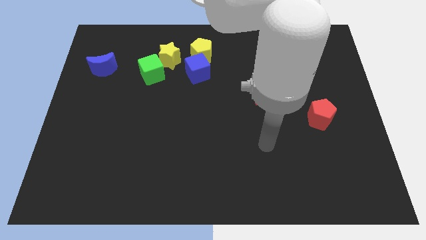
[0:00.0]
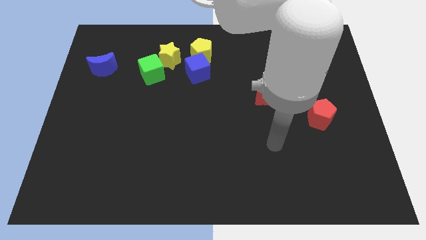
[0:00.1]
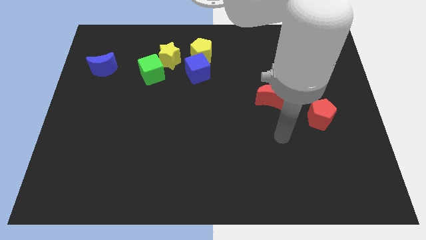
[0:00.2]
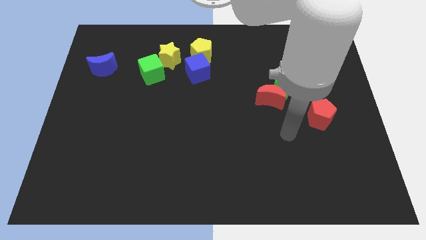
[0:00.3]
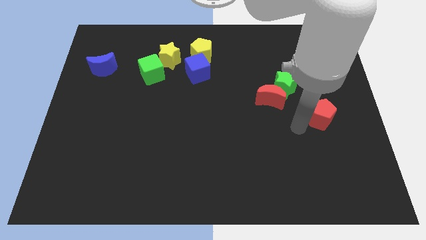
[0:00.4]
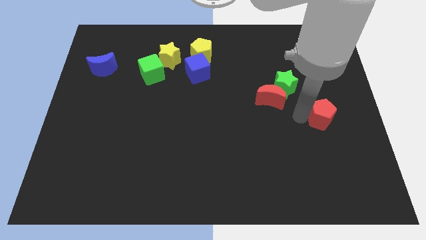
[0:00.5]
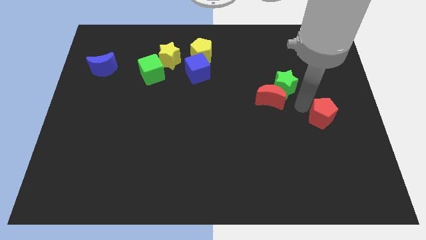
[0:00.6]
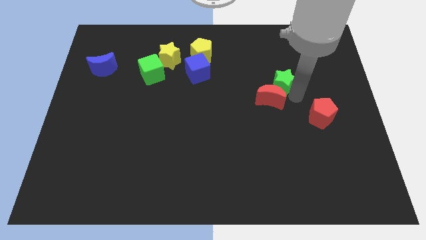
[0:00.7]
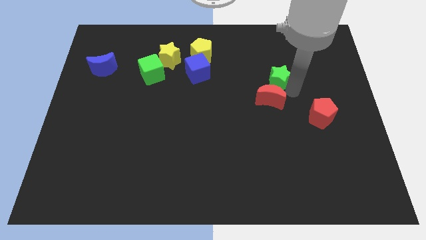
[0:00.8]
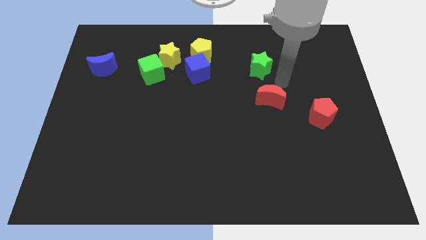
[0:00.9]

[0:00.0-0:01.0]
pull the red moon apart from the green star

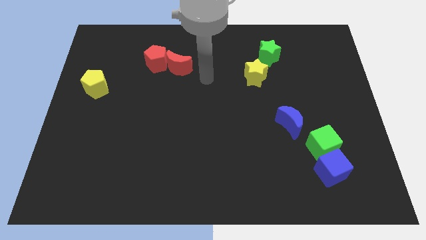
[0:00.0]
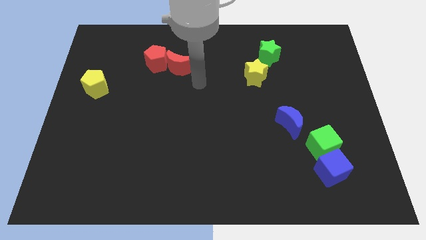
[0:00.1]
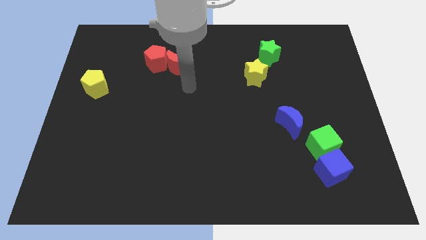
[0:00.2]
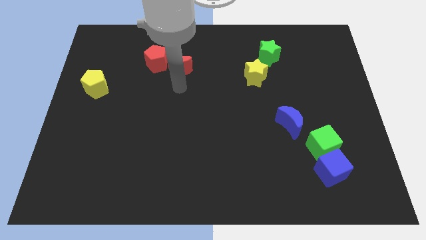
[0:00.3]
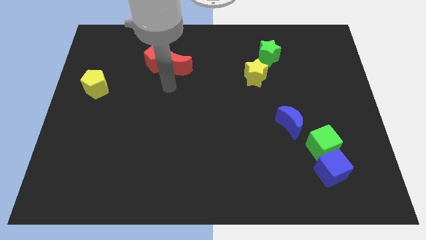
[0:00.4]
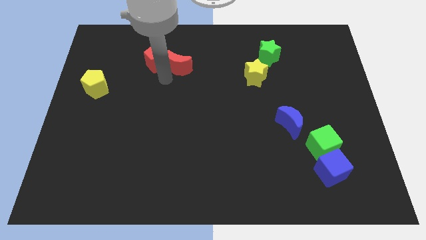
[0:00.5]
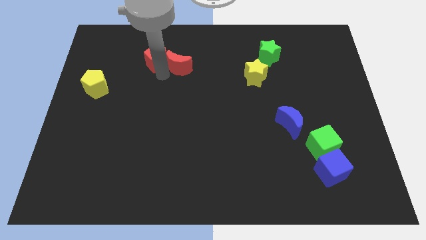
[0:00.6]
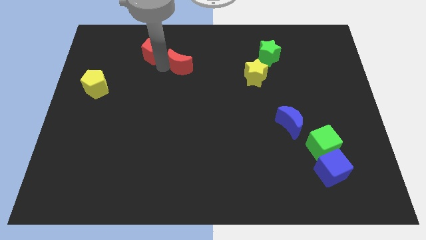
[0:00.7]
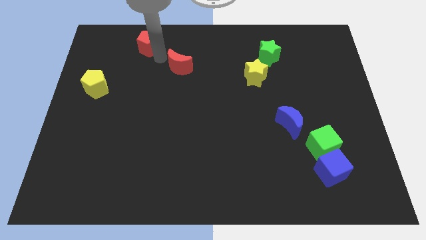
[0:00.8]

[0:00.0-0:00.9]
pull the red moon apart from the red pentagon

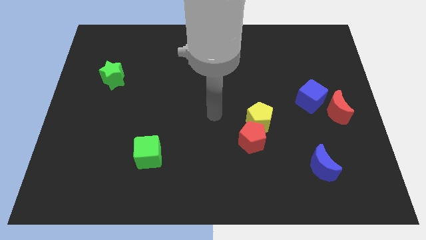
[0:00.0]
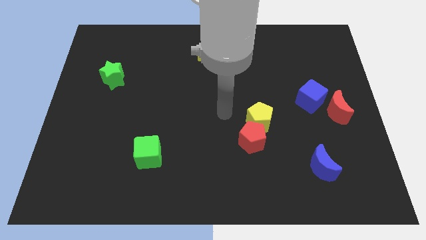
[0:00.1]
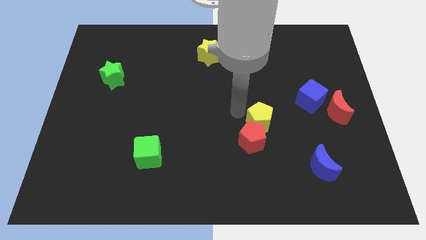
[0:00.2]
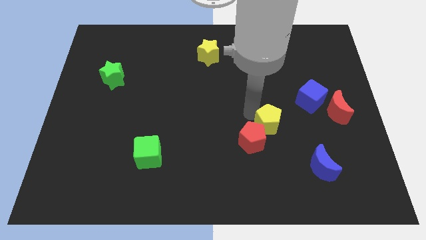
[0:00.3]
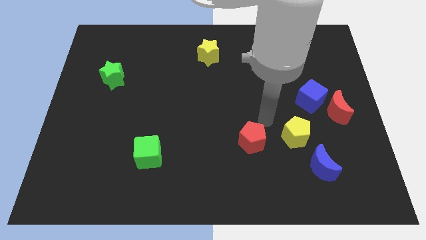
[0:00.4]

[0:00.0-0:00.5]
move the red pentagon away from the yellow pentagon

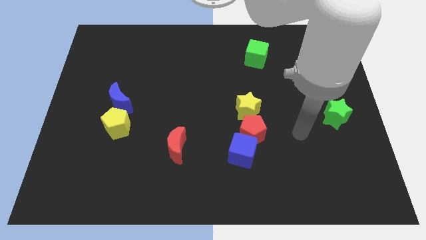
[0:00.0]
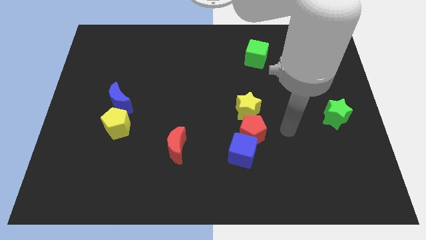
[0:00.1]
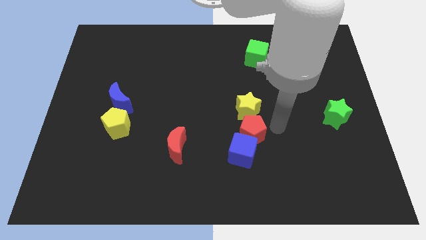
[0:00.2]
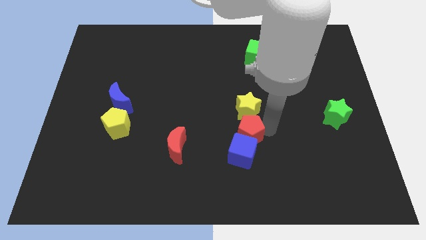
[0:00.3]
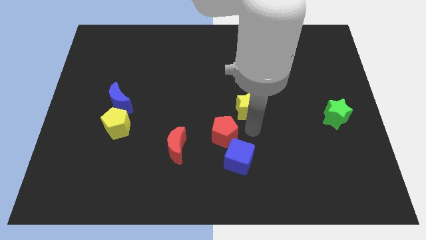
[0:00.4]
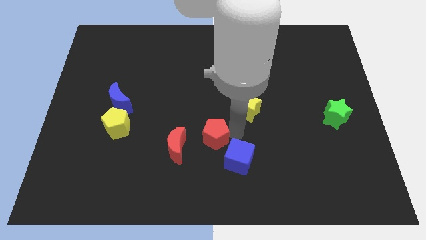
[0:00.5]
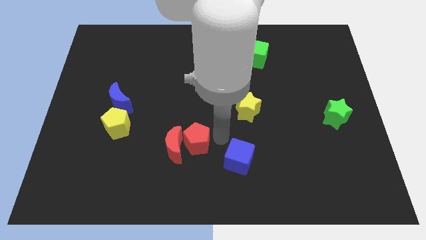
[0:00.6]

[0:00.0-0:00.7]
separate the blue cube from the red pentagon

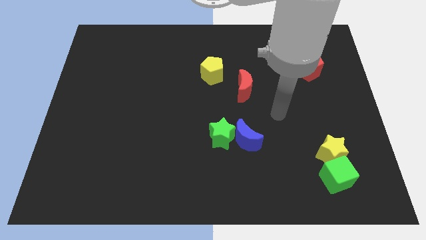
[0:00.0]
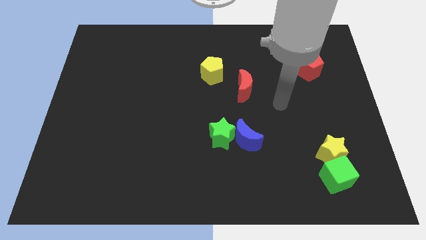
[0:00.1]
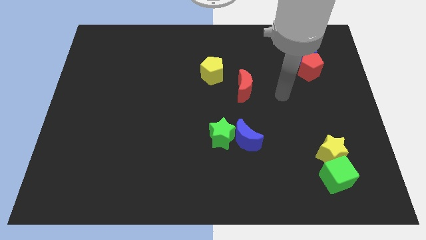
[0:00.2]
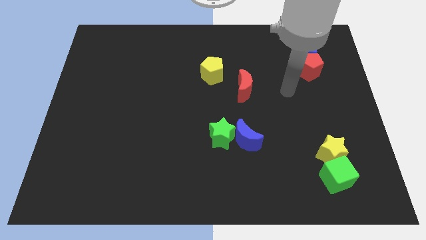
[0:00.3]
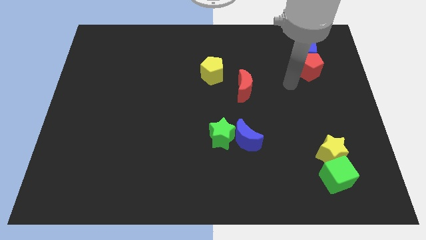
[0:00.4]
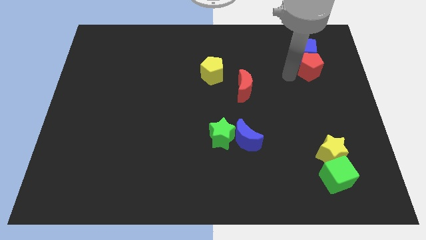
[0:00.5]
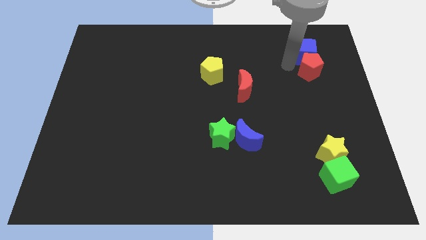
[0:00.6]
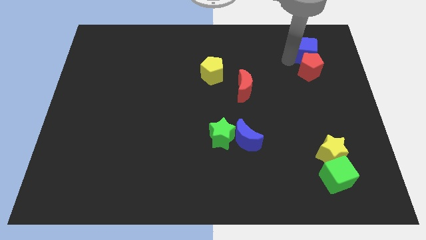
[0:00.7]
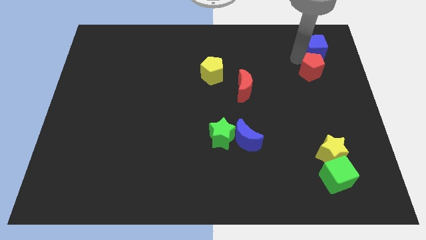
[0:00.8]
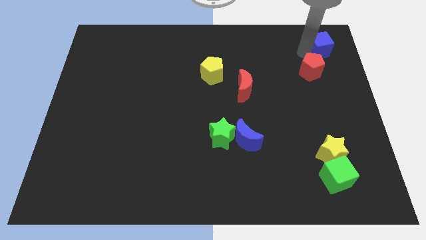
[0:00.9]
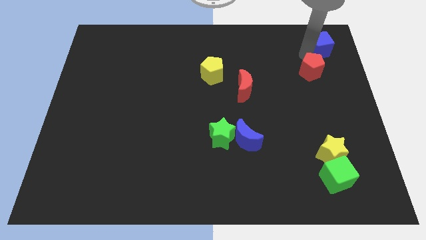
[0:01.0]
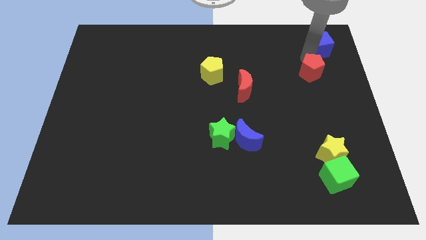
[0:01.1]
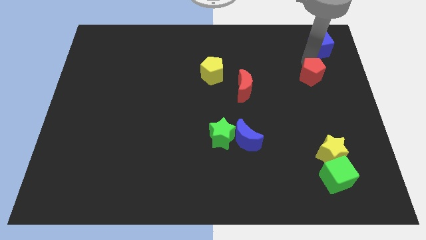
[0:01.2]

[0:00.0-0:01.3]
separate the red pentagon from the blue cube

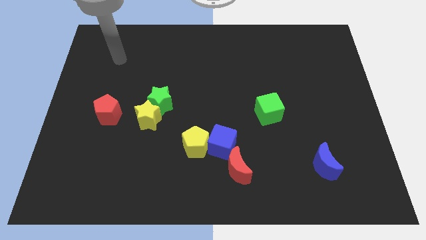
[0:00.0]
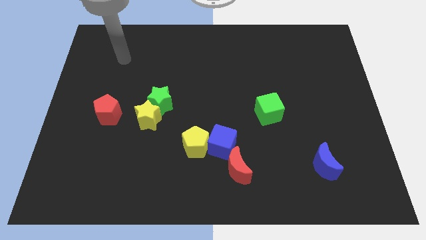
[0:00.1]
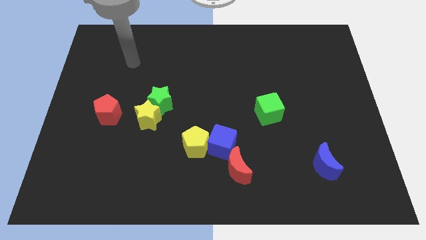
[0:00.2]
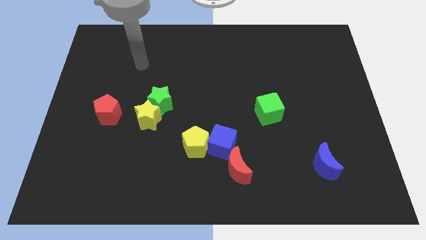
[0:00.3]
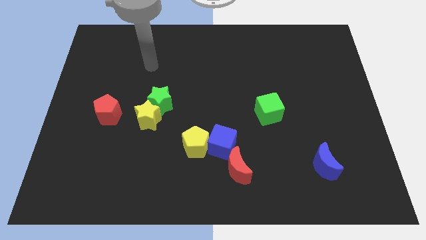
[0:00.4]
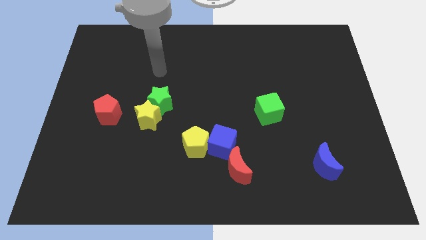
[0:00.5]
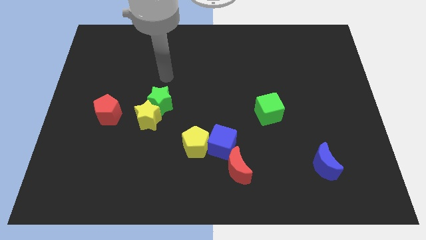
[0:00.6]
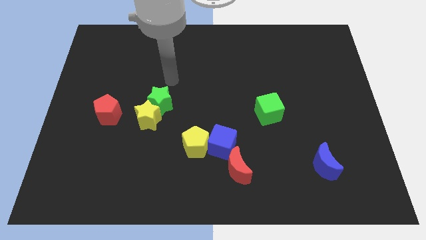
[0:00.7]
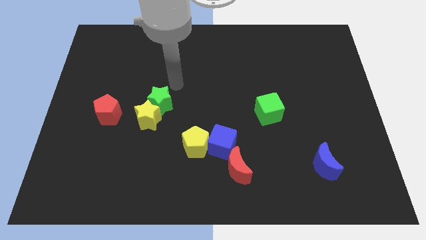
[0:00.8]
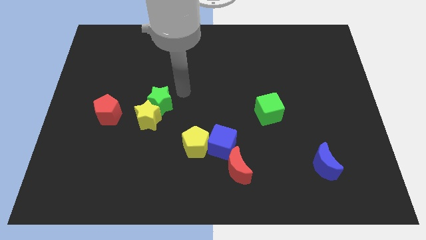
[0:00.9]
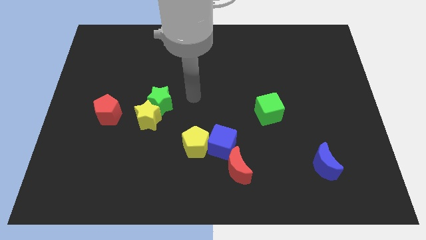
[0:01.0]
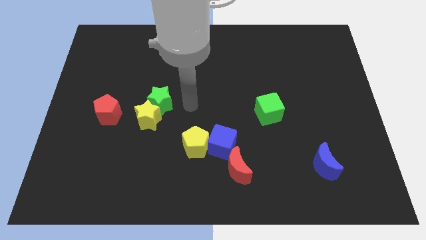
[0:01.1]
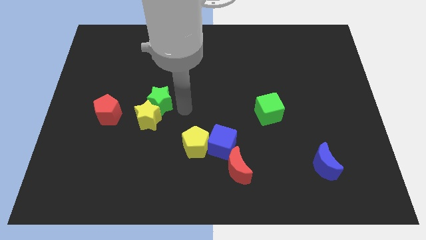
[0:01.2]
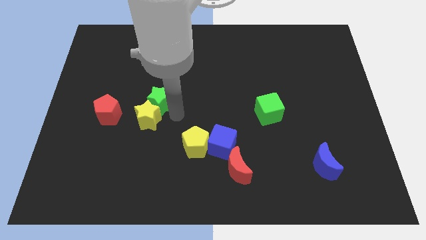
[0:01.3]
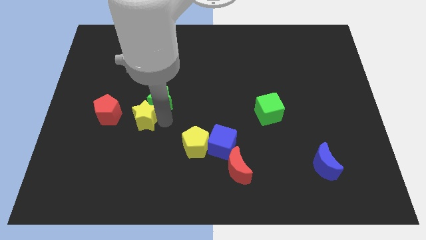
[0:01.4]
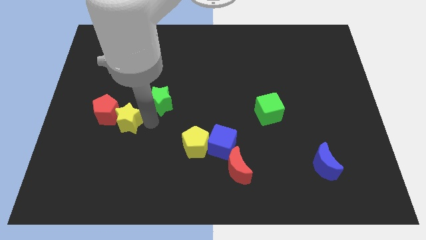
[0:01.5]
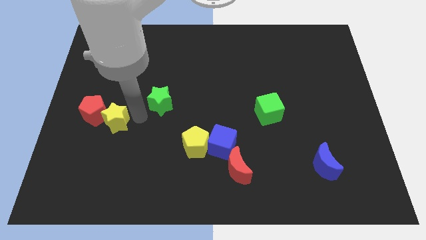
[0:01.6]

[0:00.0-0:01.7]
pull the green star apart from the yellow star

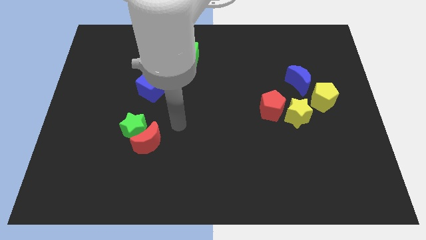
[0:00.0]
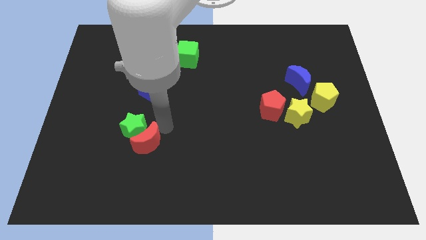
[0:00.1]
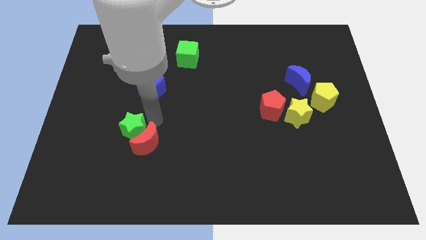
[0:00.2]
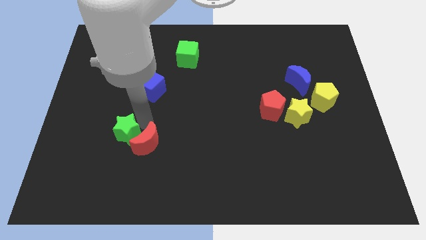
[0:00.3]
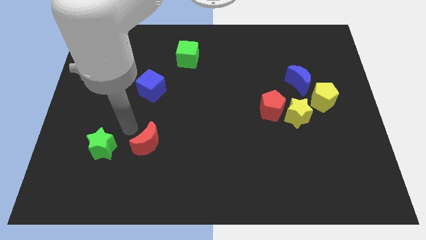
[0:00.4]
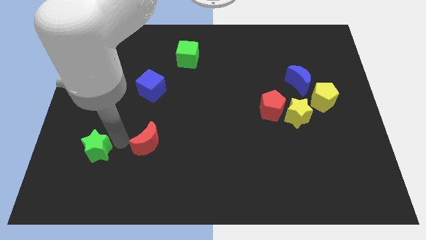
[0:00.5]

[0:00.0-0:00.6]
separate the red moon from the green star

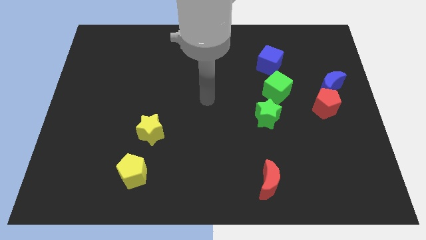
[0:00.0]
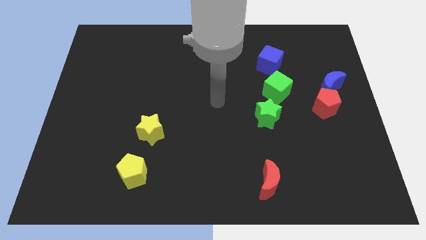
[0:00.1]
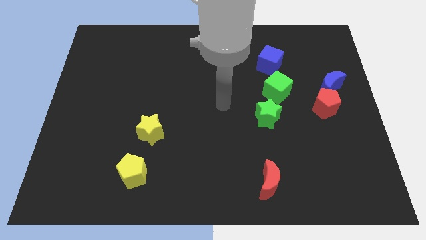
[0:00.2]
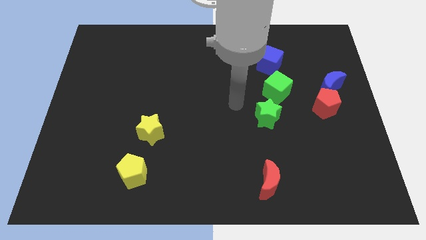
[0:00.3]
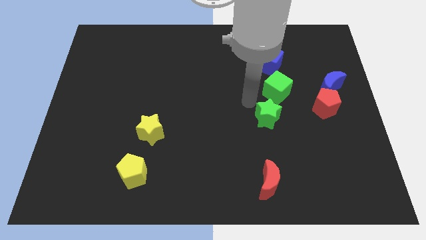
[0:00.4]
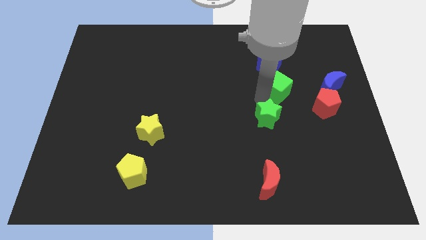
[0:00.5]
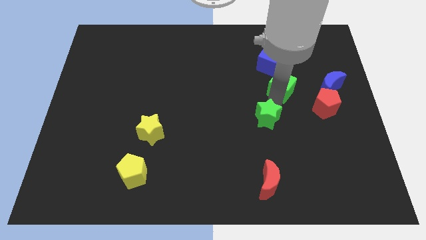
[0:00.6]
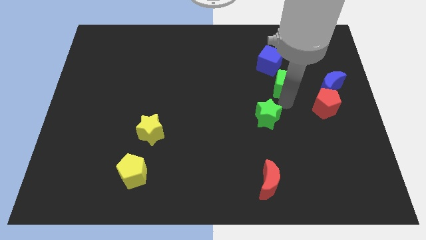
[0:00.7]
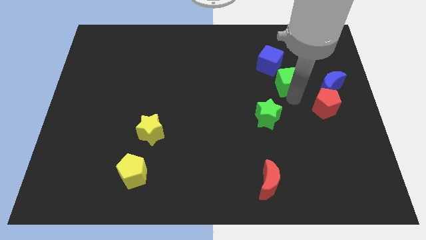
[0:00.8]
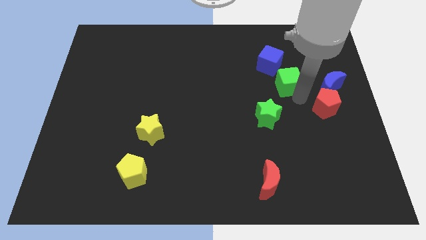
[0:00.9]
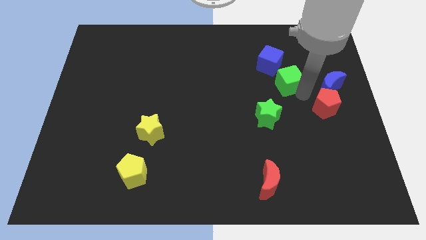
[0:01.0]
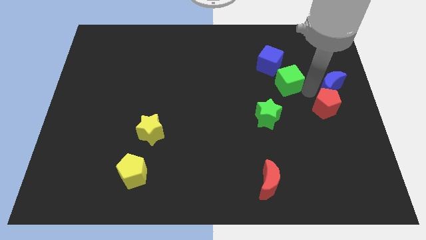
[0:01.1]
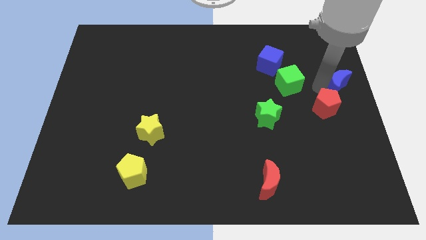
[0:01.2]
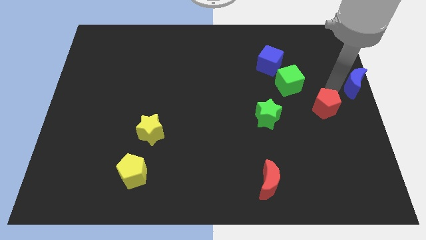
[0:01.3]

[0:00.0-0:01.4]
move the red pentagon away from the blue moon

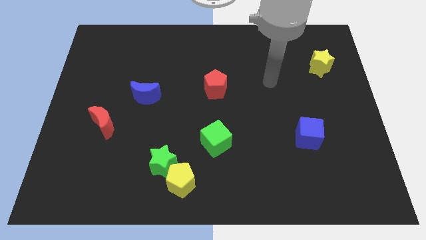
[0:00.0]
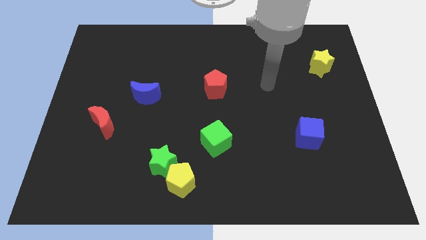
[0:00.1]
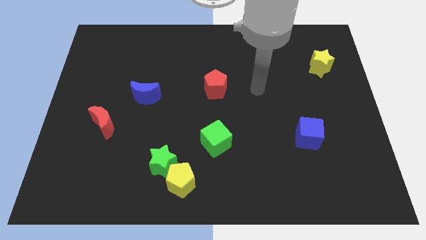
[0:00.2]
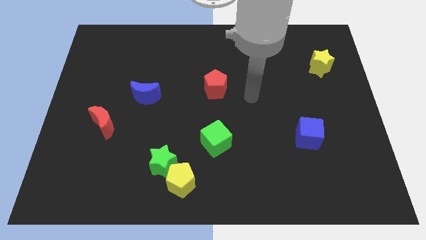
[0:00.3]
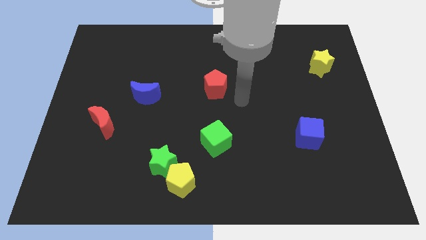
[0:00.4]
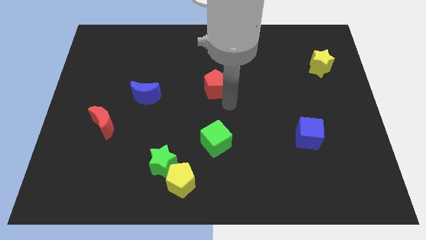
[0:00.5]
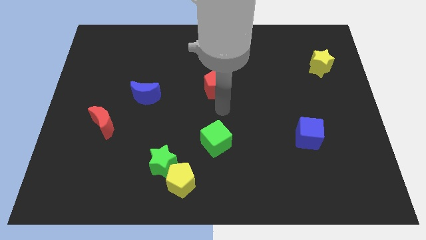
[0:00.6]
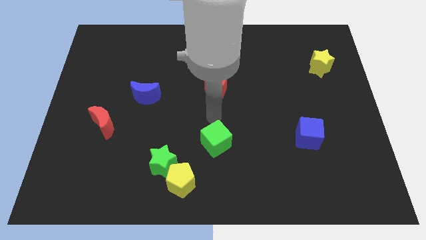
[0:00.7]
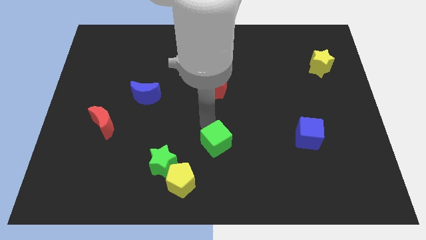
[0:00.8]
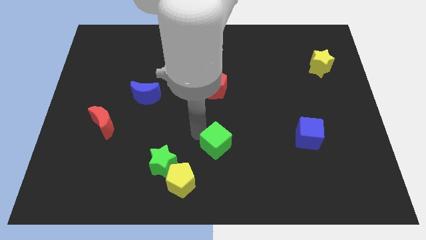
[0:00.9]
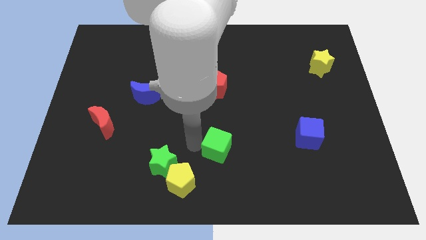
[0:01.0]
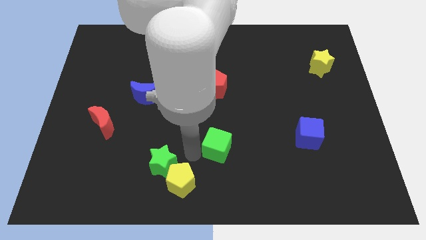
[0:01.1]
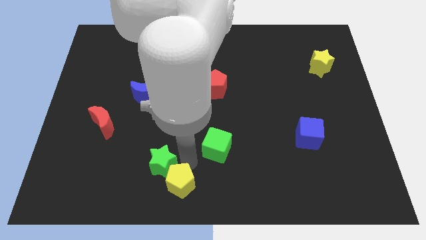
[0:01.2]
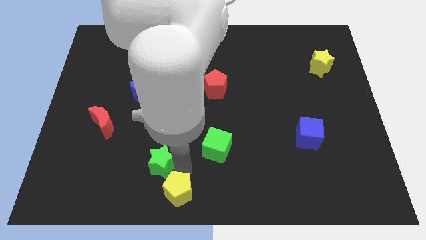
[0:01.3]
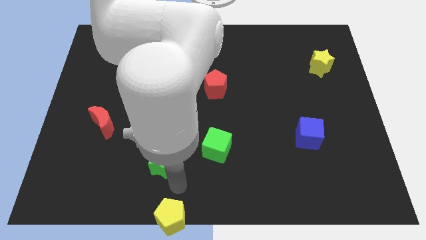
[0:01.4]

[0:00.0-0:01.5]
move the green star away from the yellow pentagon
